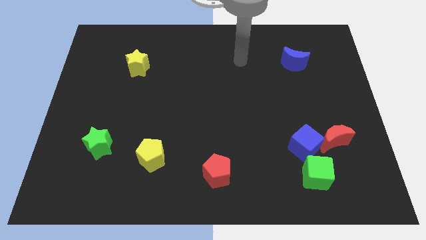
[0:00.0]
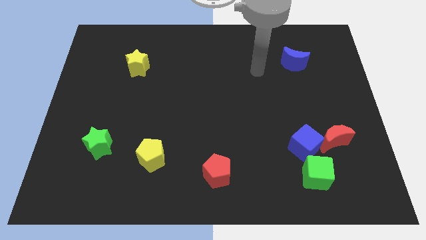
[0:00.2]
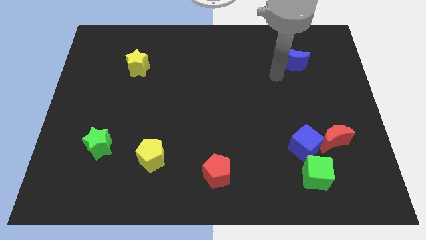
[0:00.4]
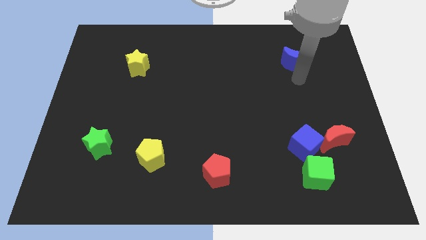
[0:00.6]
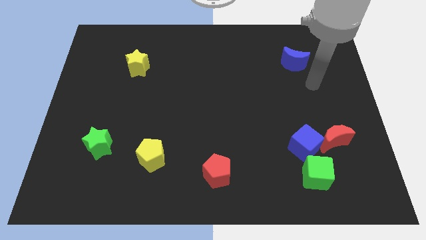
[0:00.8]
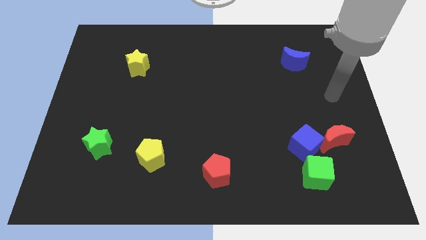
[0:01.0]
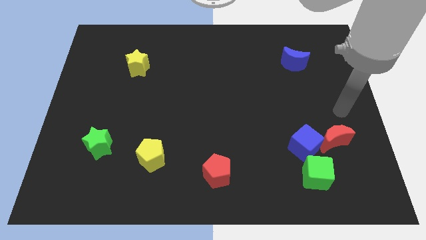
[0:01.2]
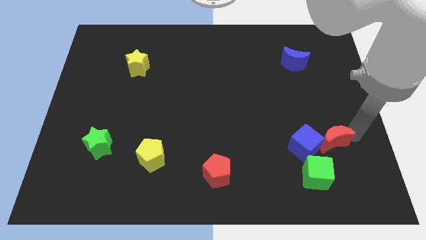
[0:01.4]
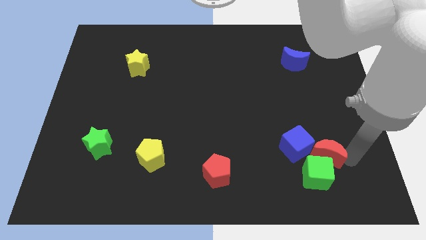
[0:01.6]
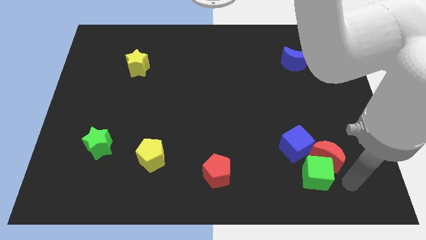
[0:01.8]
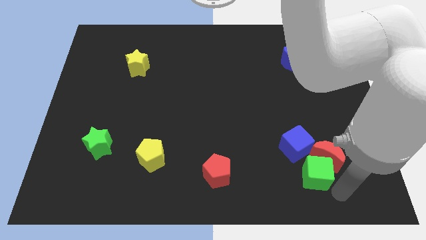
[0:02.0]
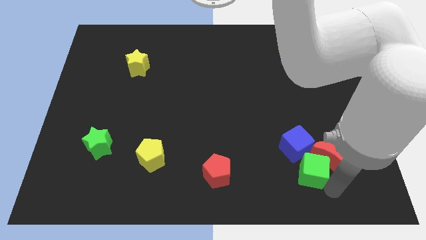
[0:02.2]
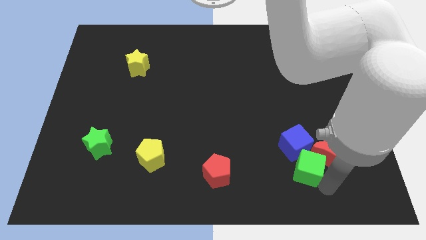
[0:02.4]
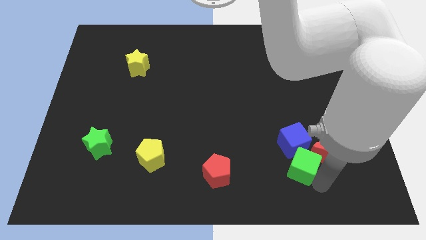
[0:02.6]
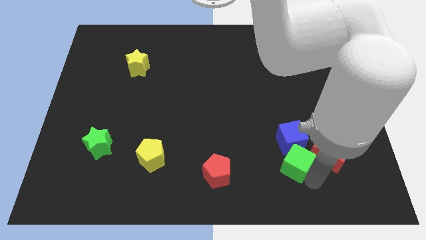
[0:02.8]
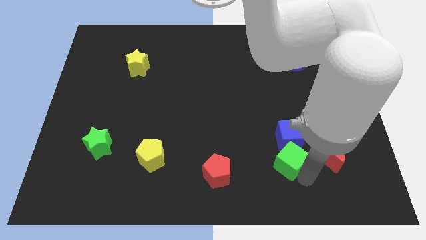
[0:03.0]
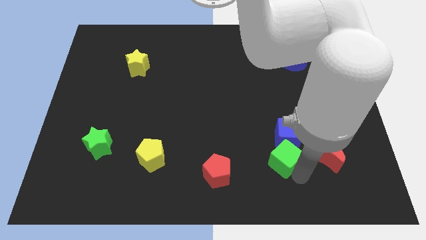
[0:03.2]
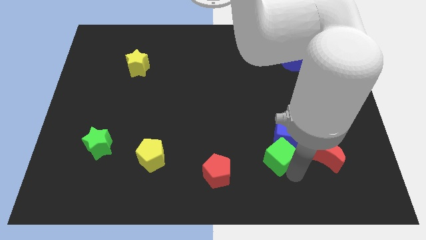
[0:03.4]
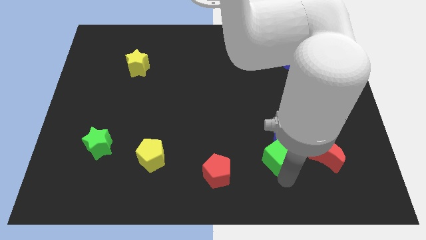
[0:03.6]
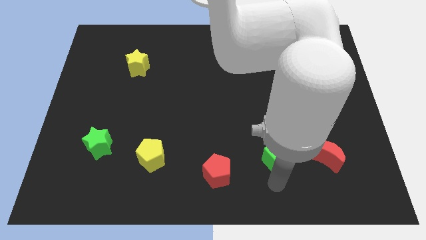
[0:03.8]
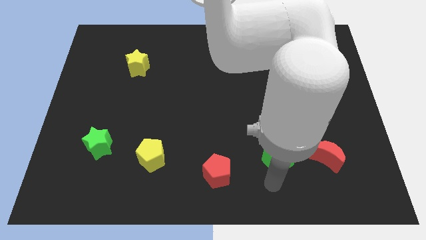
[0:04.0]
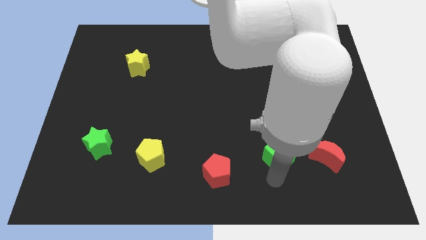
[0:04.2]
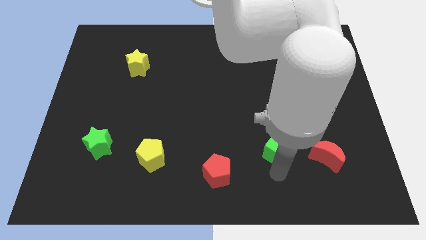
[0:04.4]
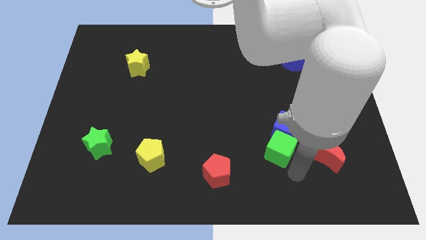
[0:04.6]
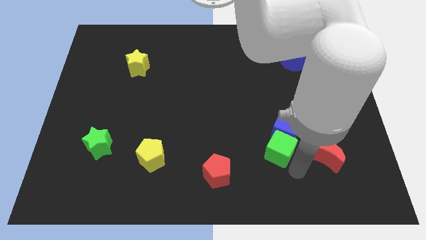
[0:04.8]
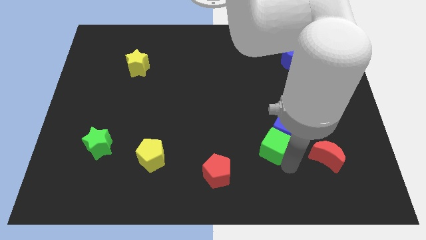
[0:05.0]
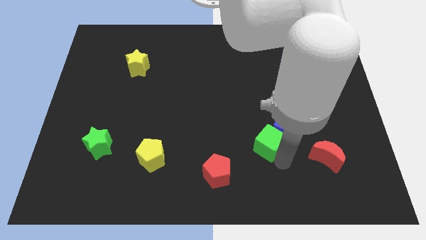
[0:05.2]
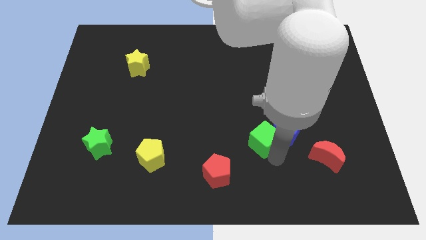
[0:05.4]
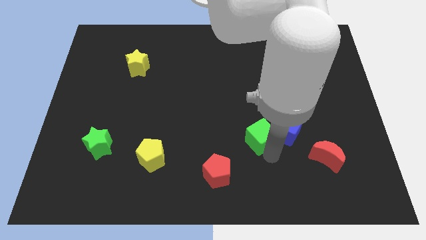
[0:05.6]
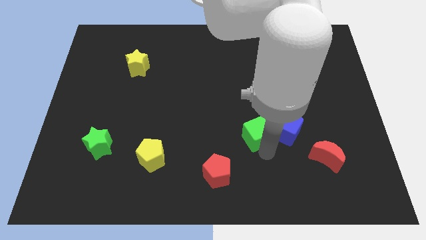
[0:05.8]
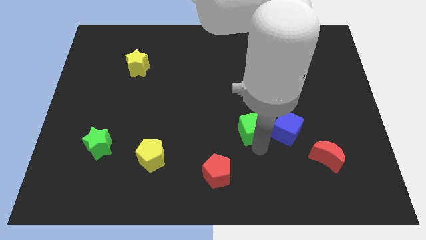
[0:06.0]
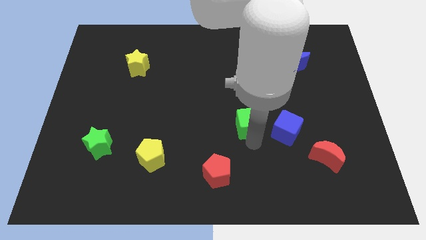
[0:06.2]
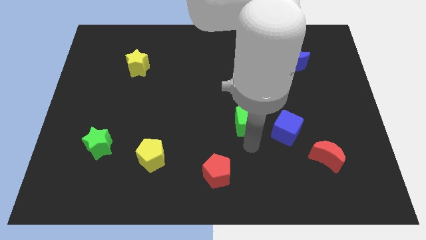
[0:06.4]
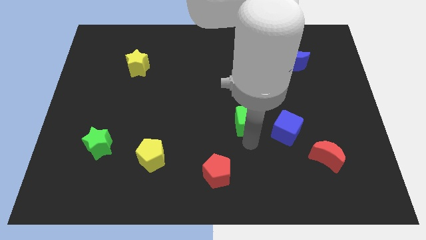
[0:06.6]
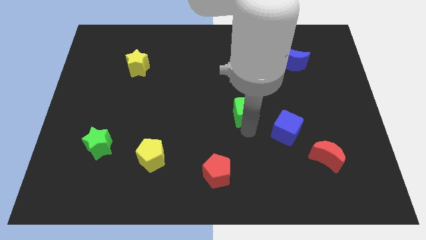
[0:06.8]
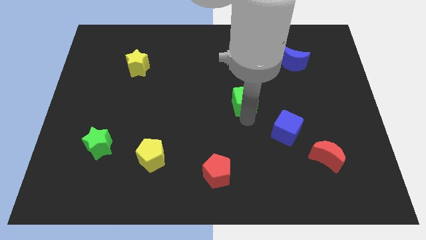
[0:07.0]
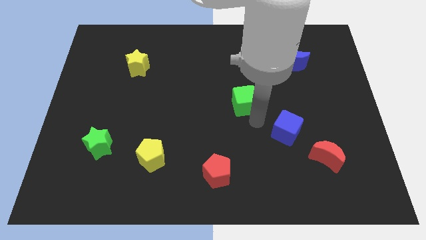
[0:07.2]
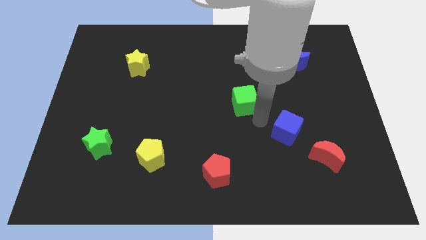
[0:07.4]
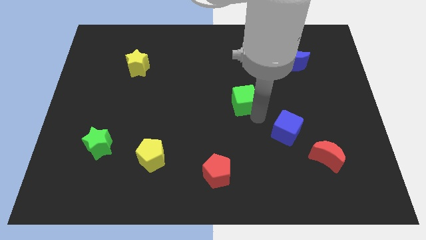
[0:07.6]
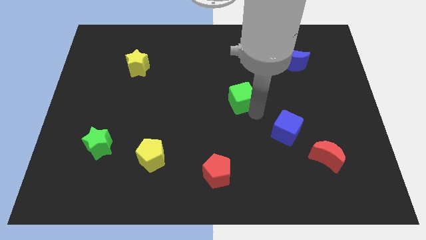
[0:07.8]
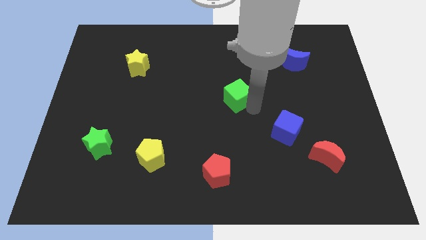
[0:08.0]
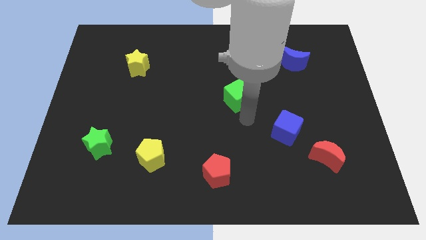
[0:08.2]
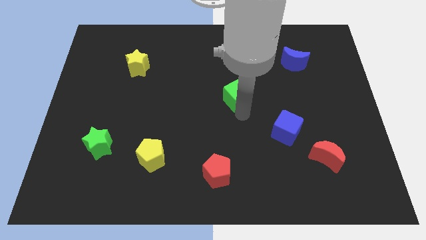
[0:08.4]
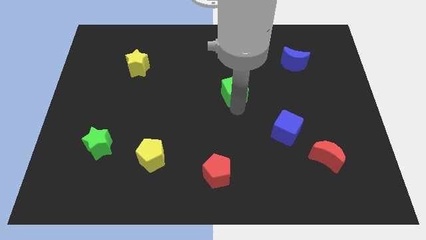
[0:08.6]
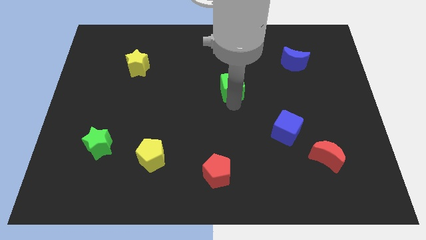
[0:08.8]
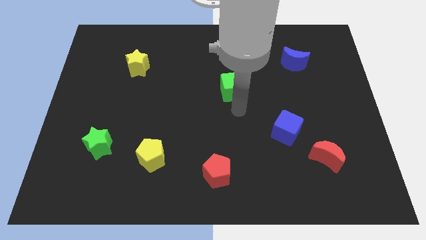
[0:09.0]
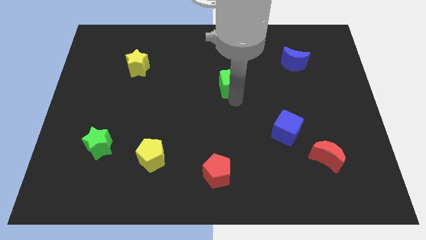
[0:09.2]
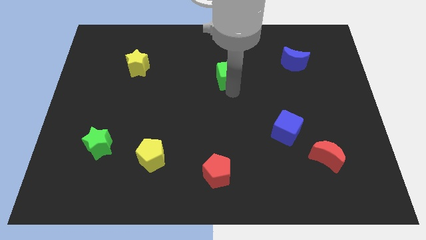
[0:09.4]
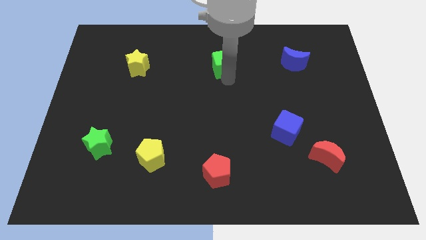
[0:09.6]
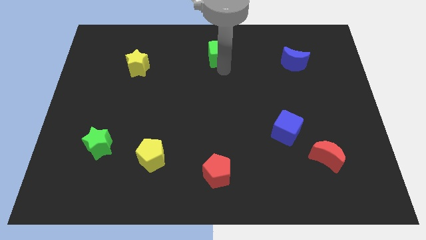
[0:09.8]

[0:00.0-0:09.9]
push the green cube to the top

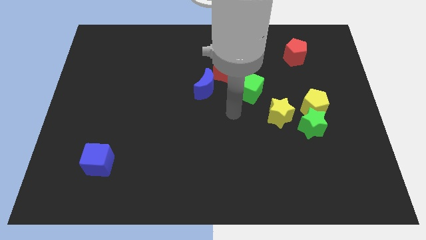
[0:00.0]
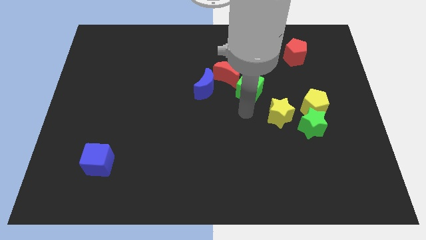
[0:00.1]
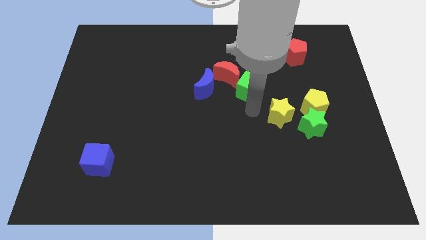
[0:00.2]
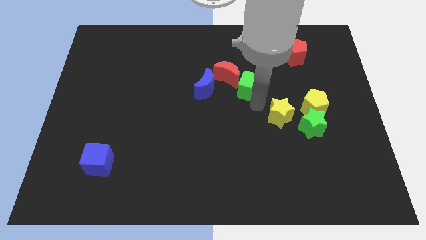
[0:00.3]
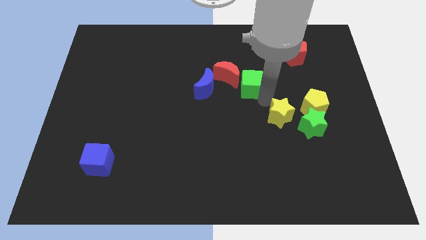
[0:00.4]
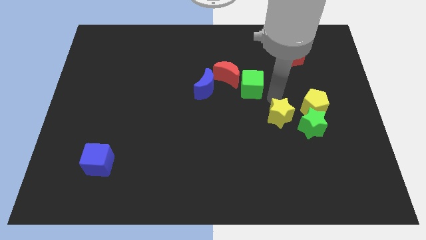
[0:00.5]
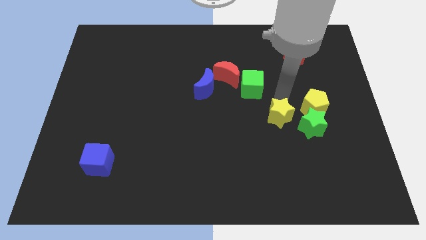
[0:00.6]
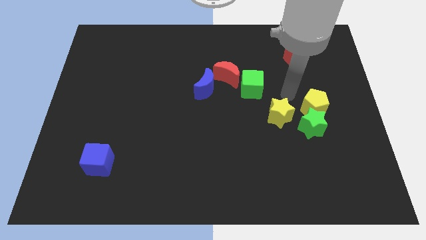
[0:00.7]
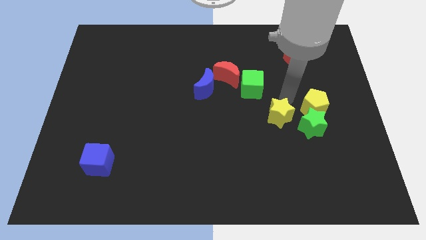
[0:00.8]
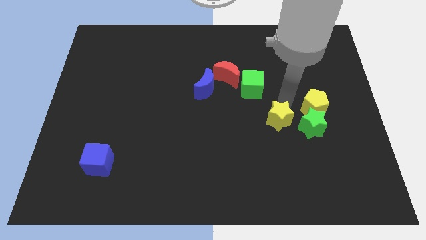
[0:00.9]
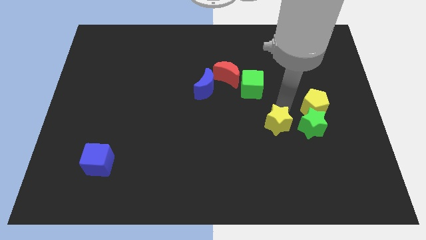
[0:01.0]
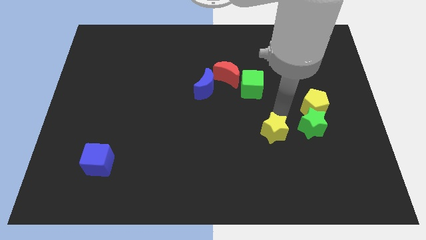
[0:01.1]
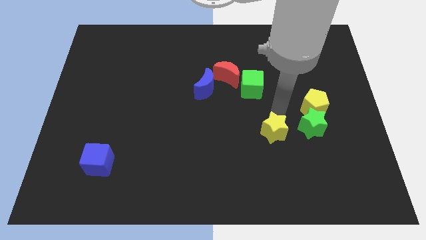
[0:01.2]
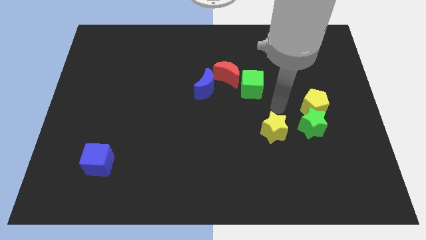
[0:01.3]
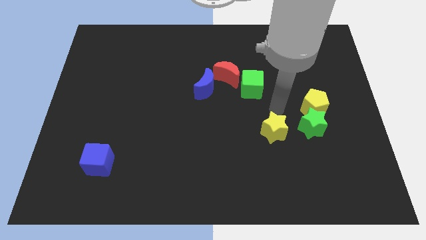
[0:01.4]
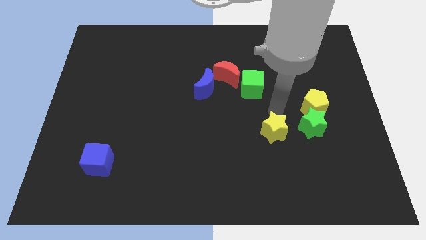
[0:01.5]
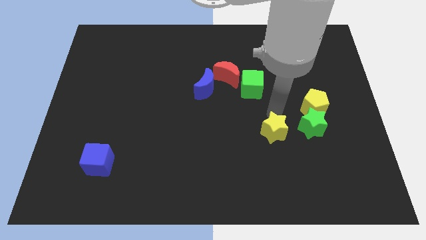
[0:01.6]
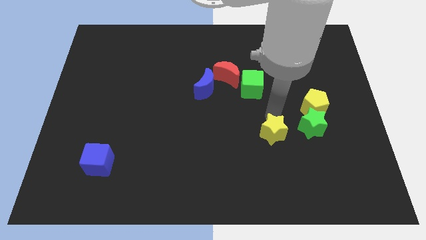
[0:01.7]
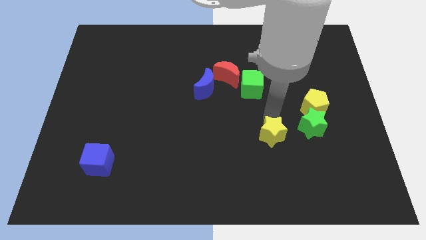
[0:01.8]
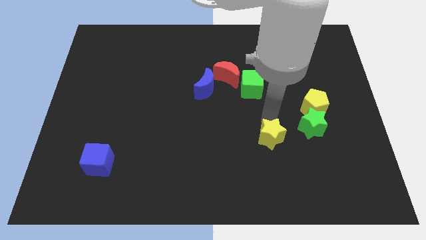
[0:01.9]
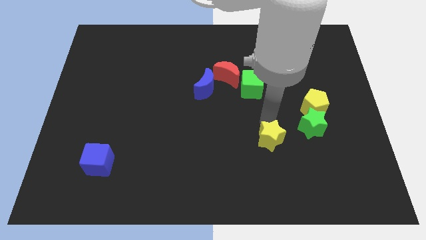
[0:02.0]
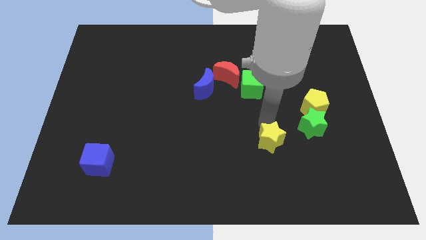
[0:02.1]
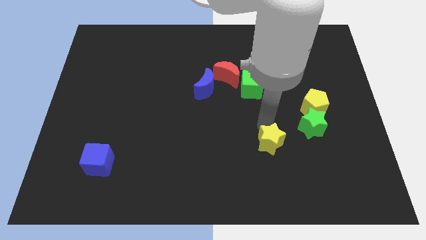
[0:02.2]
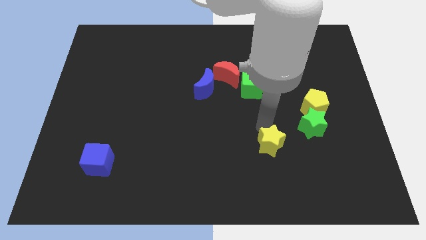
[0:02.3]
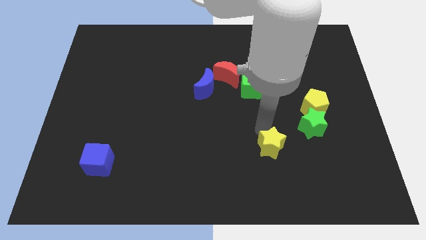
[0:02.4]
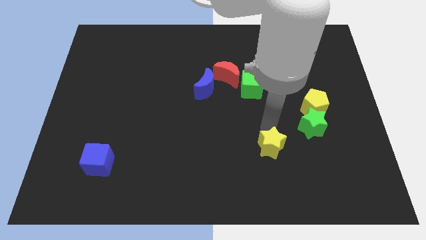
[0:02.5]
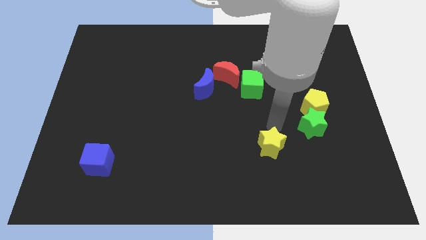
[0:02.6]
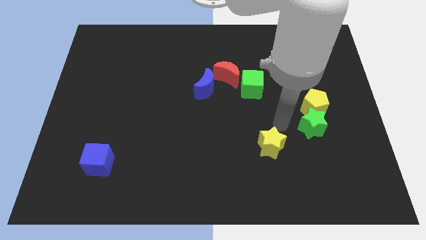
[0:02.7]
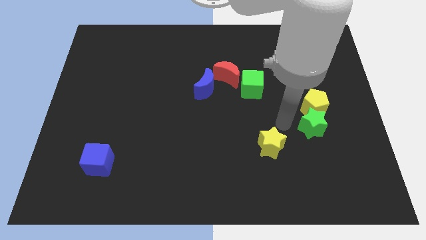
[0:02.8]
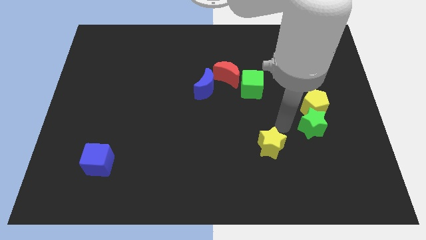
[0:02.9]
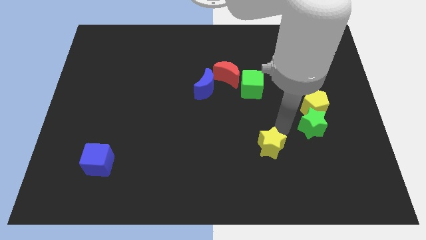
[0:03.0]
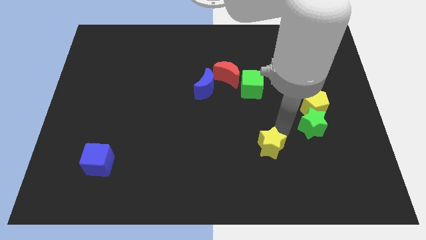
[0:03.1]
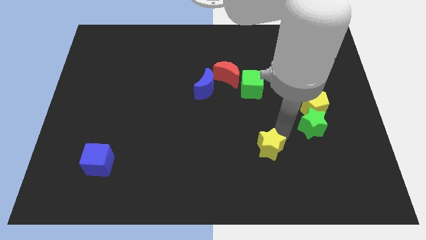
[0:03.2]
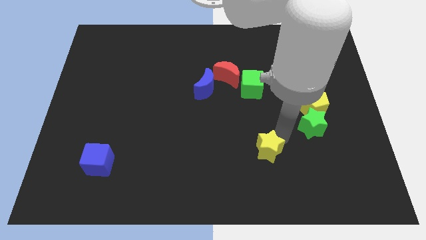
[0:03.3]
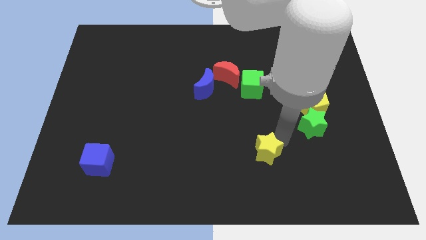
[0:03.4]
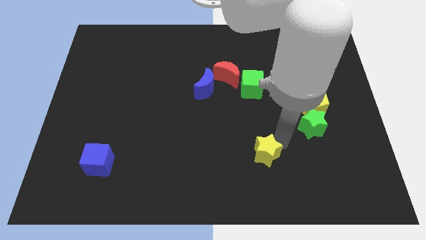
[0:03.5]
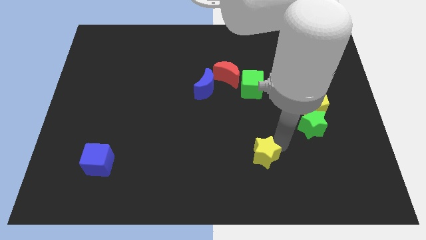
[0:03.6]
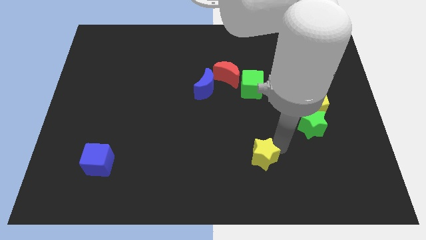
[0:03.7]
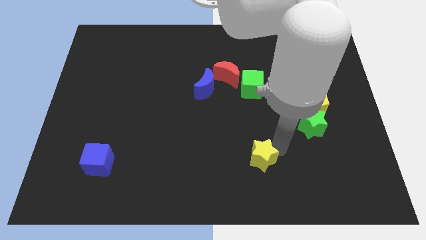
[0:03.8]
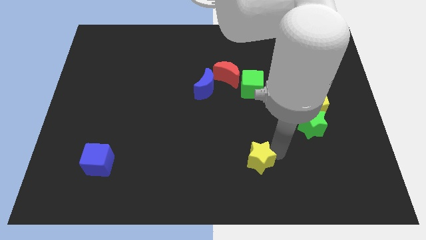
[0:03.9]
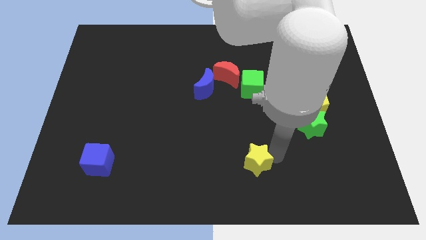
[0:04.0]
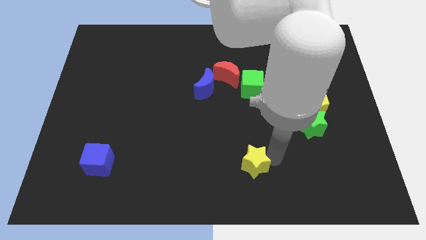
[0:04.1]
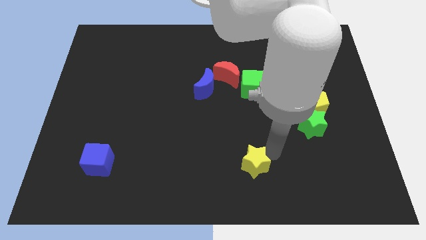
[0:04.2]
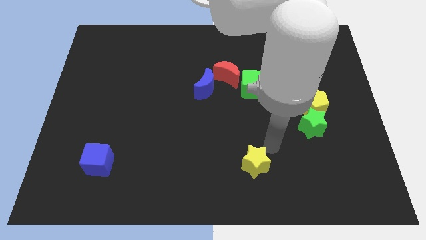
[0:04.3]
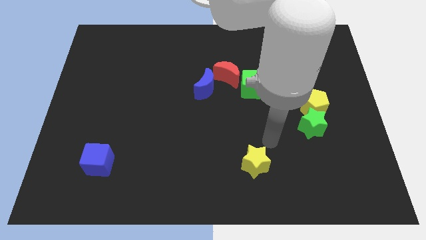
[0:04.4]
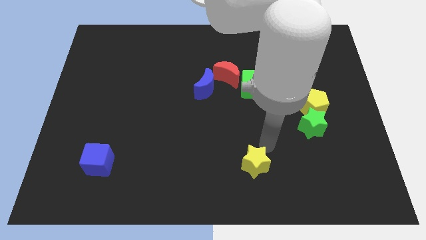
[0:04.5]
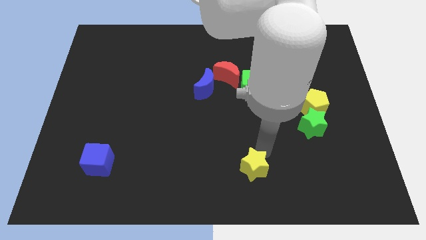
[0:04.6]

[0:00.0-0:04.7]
move the yellow star to the bottom
